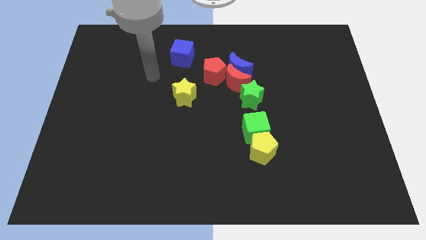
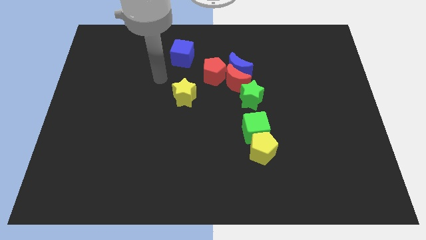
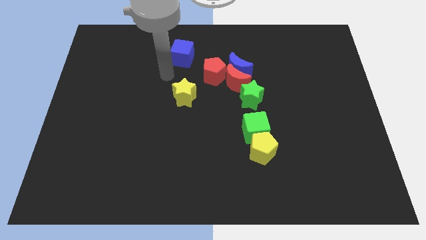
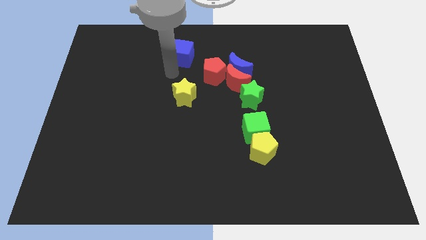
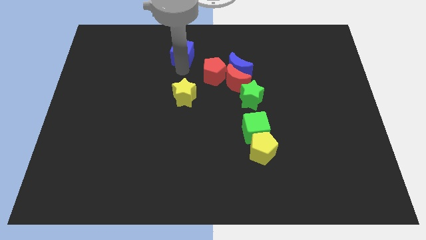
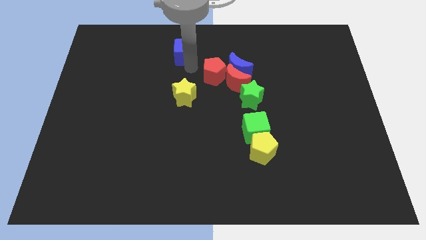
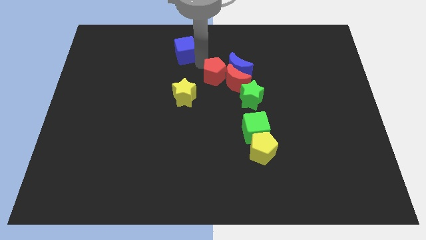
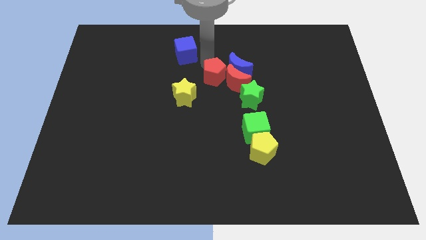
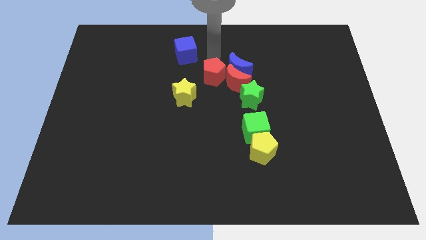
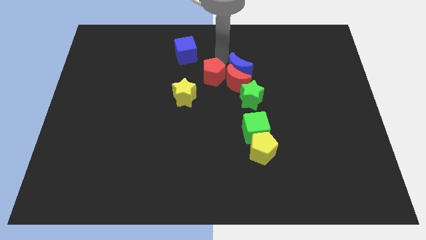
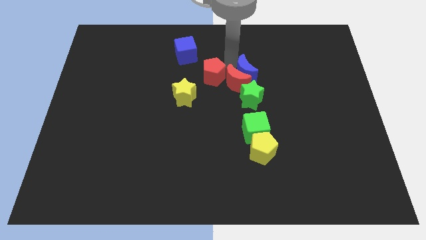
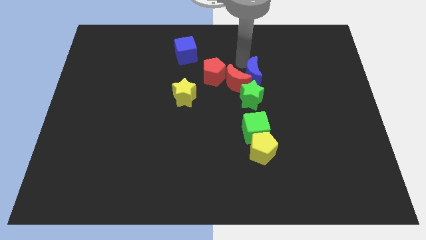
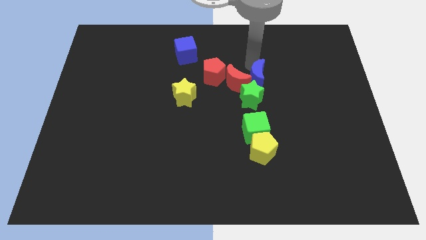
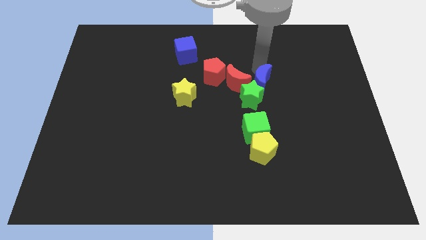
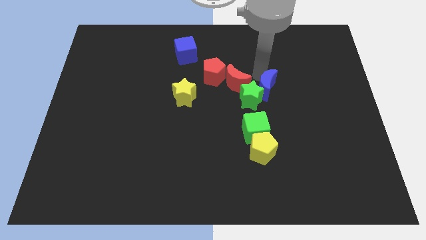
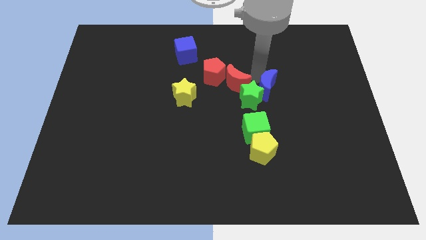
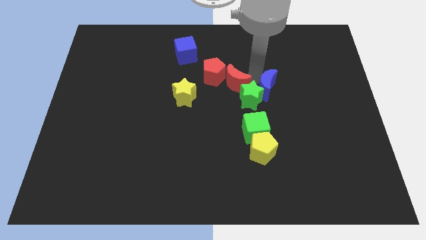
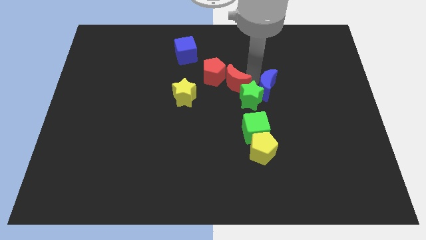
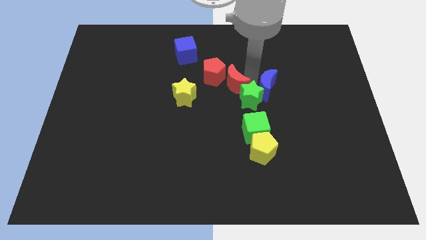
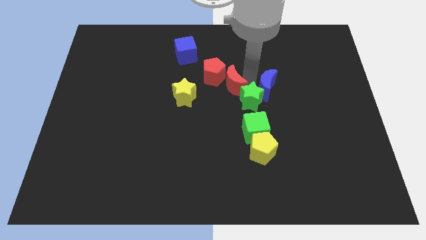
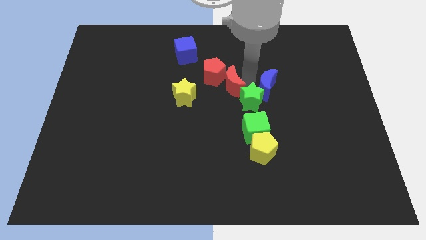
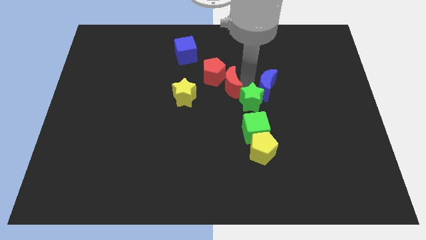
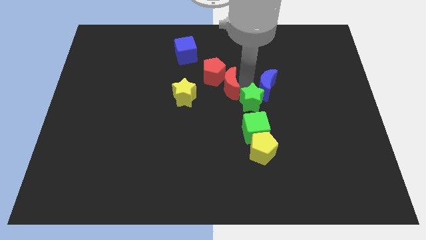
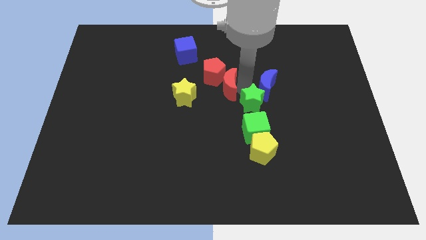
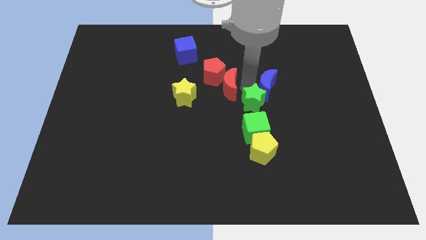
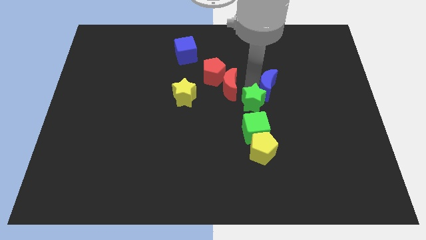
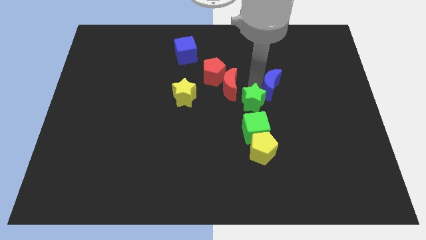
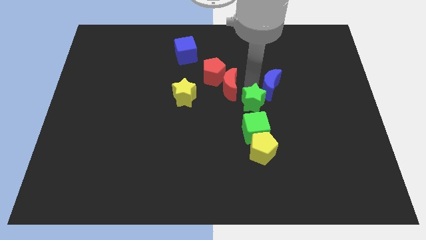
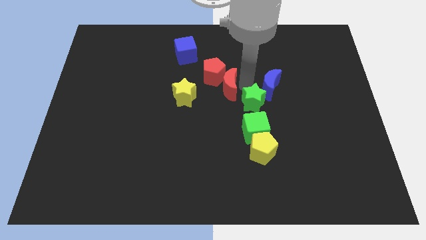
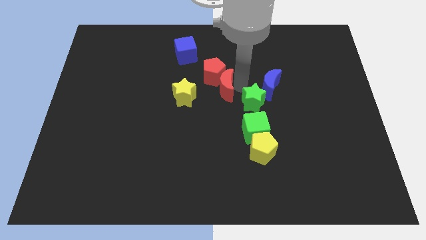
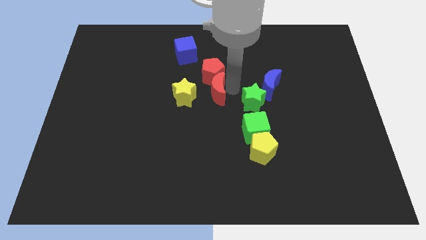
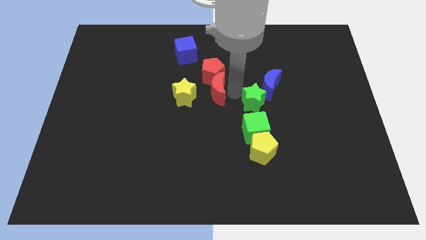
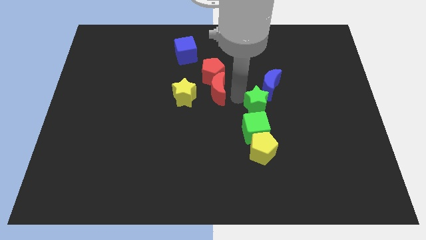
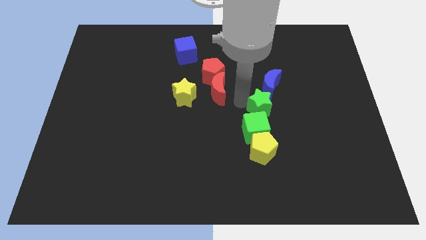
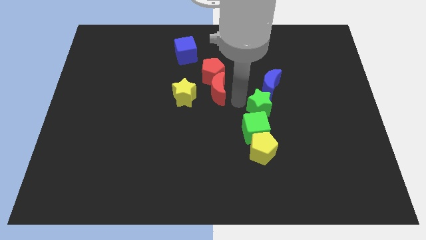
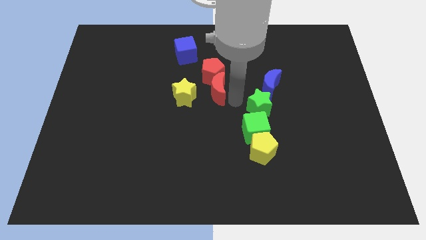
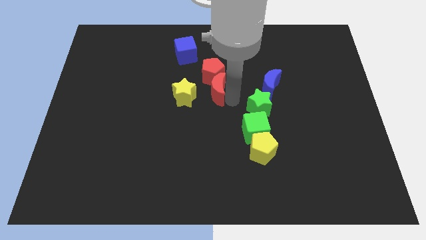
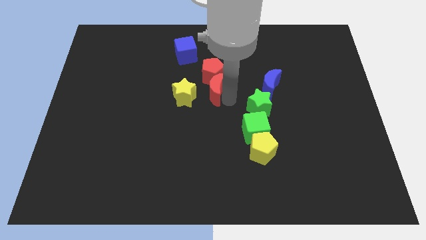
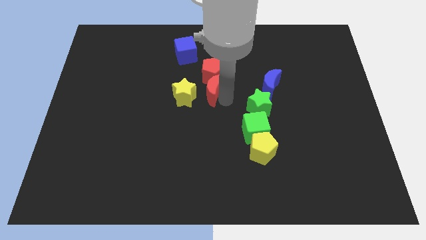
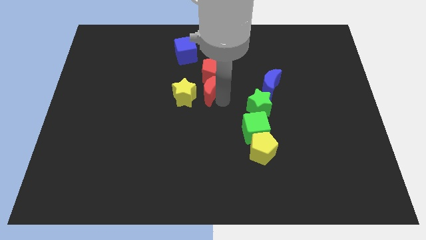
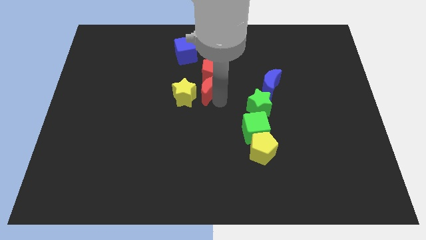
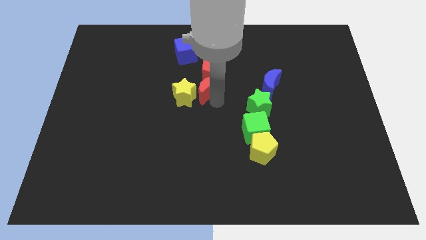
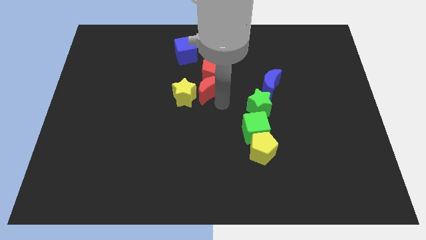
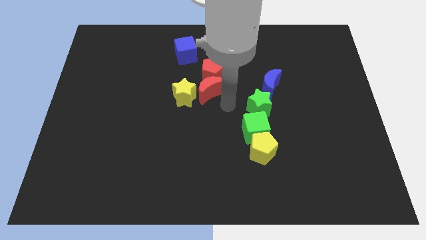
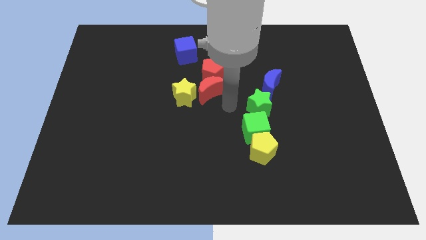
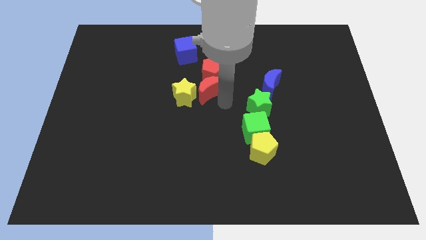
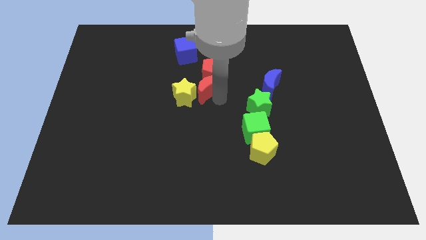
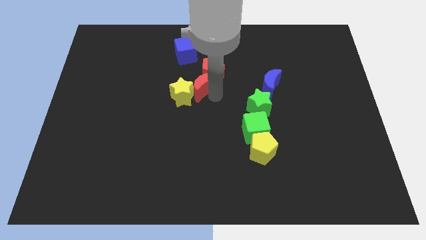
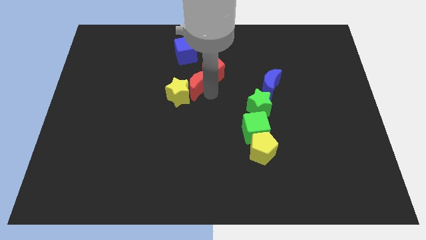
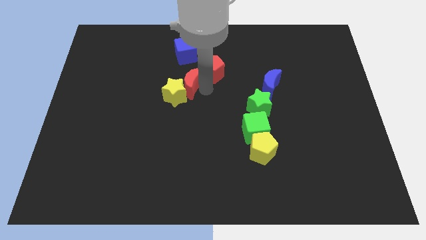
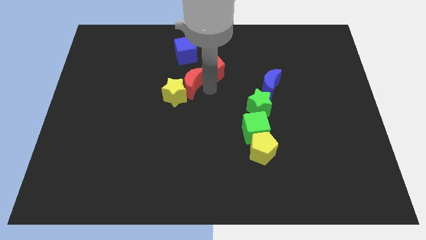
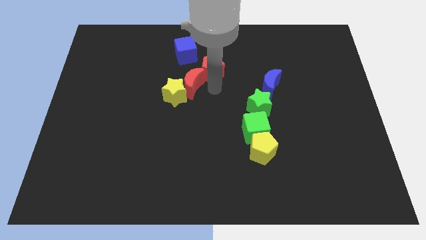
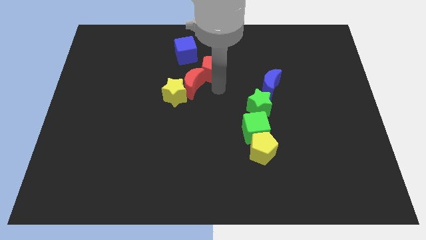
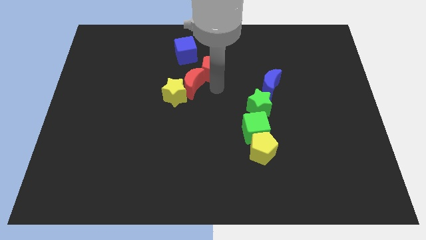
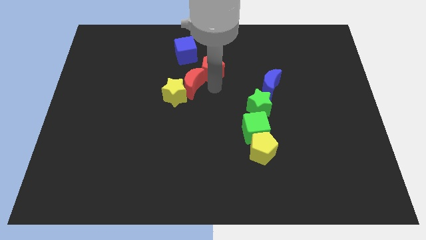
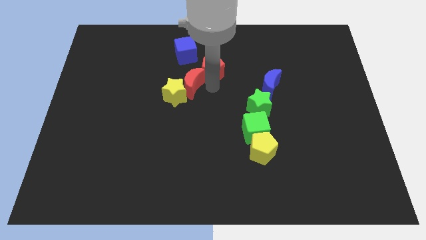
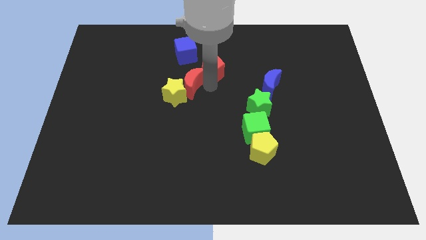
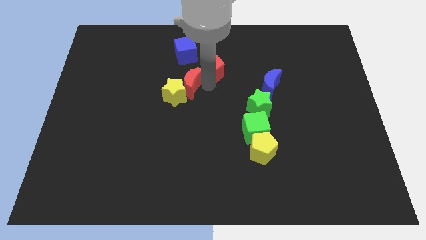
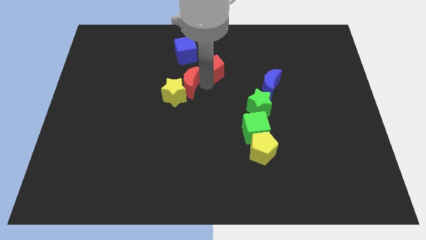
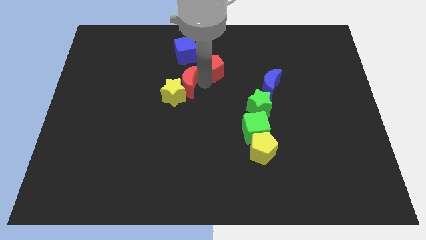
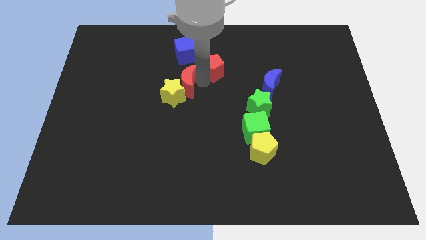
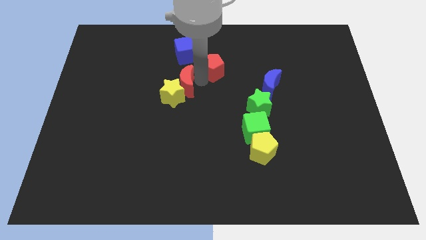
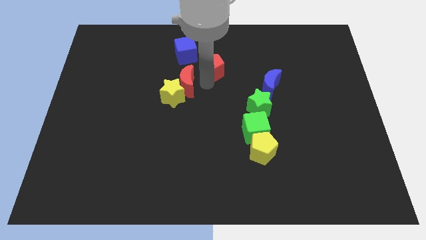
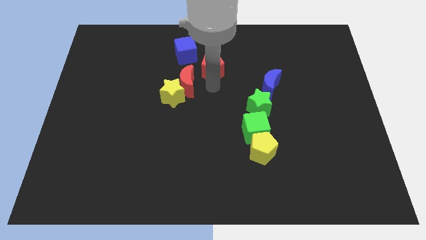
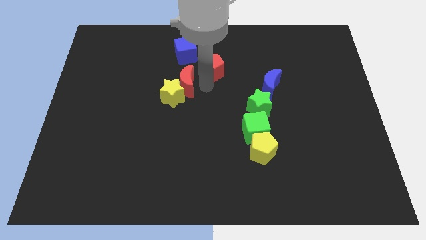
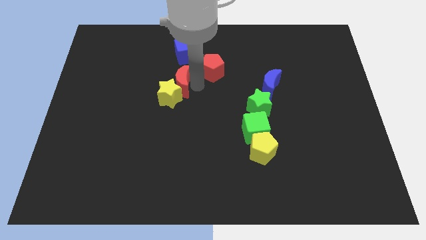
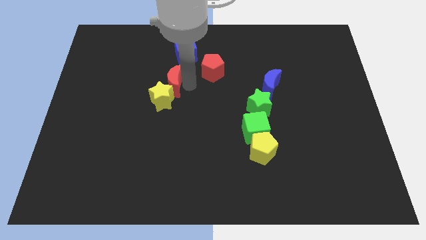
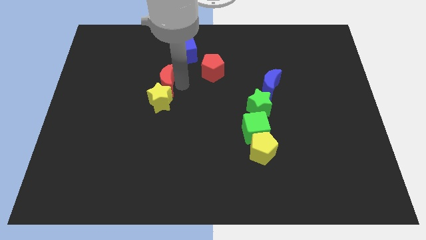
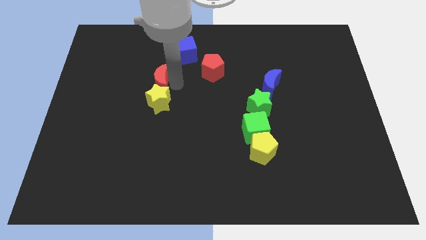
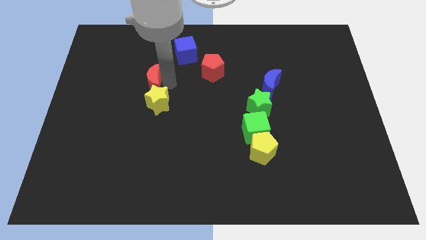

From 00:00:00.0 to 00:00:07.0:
push the red moon left

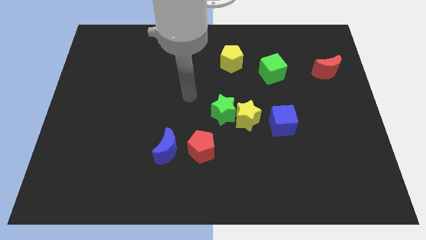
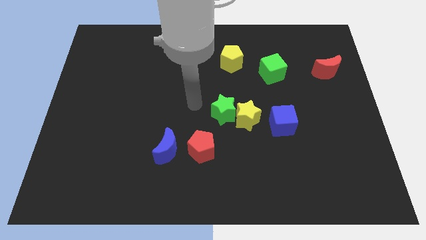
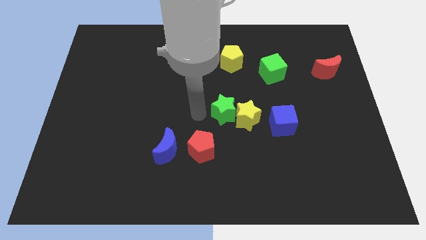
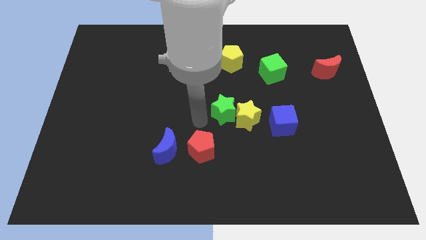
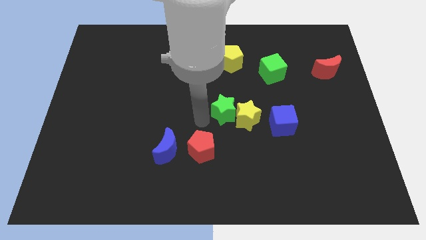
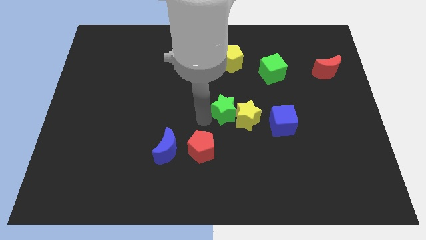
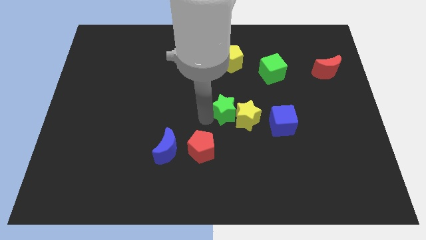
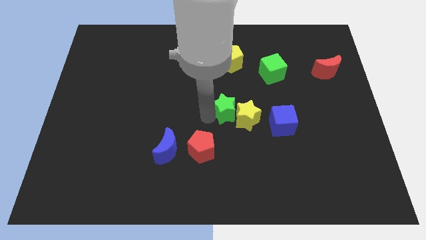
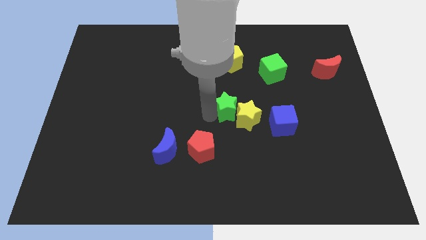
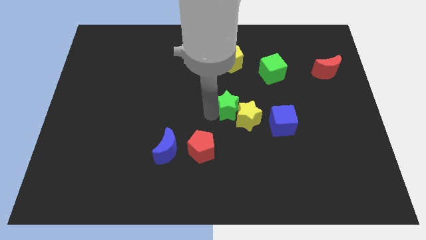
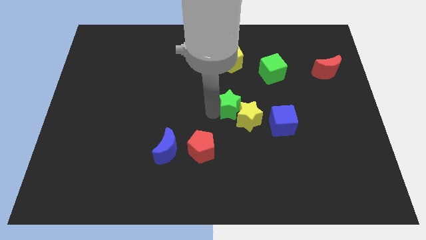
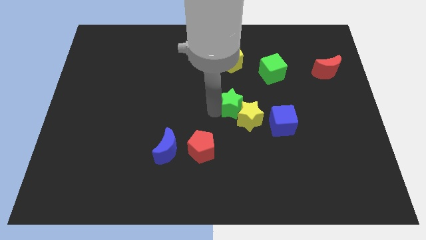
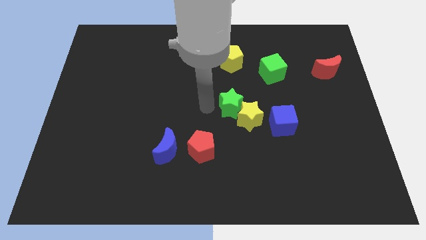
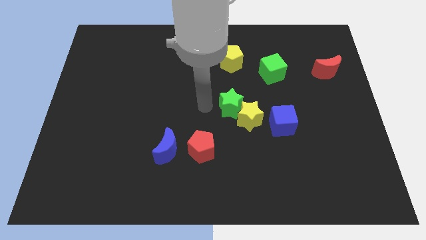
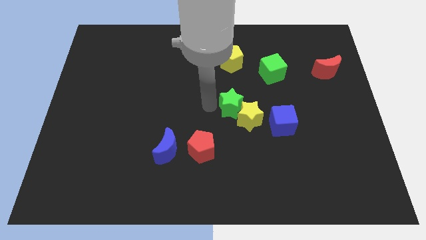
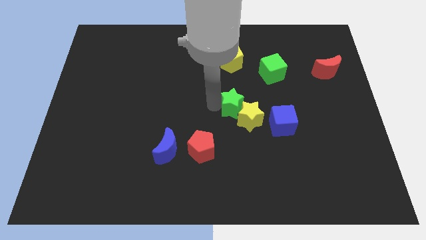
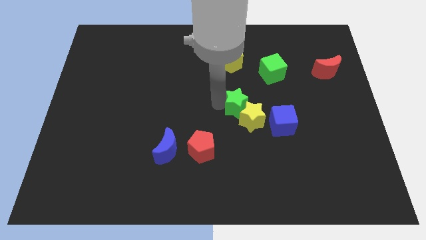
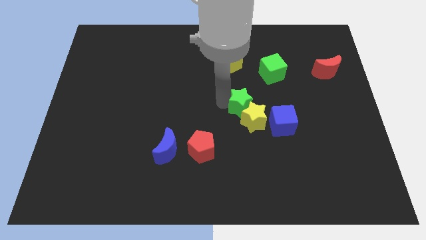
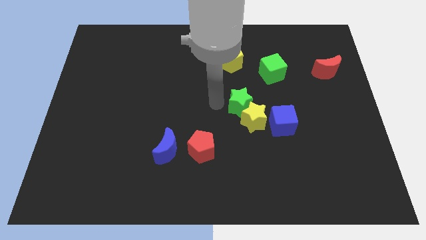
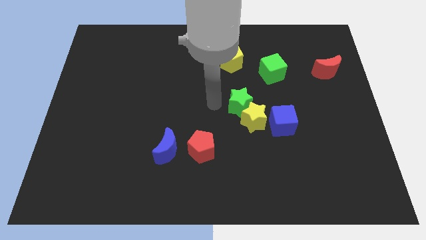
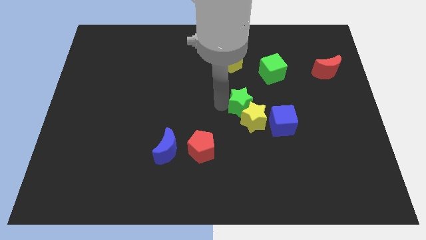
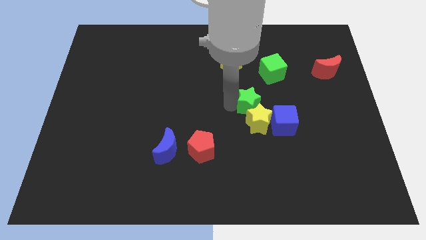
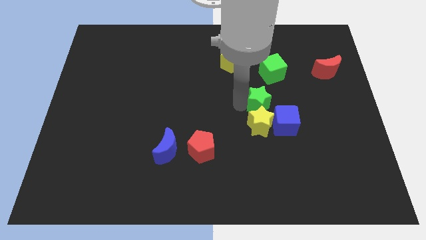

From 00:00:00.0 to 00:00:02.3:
slide the green star a bit right
